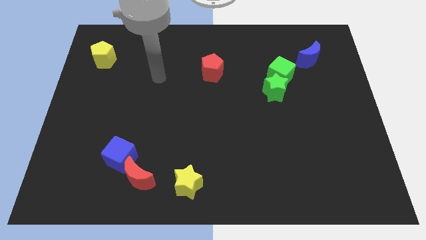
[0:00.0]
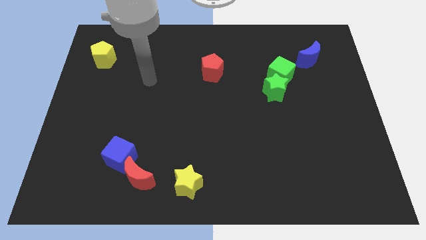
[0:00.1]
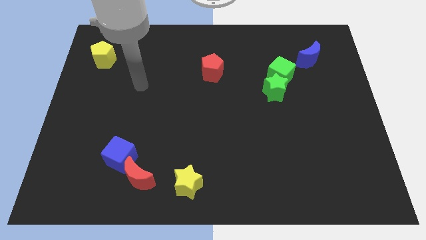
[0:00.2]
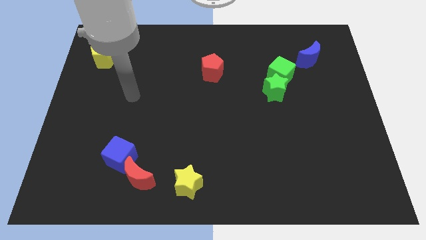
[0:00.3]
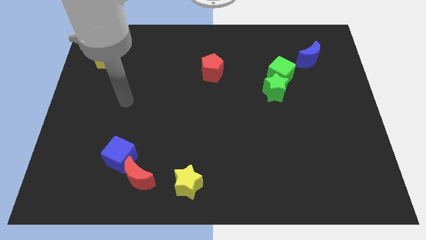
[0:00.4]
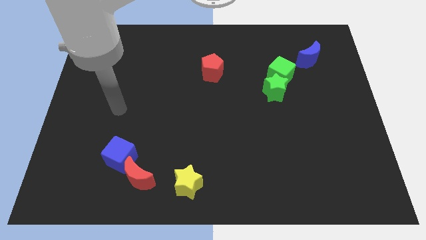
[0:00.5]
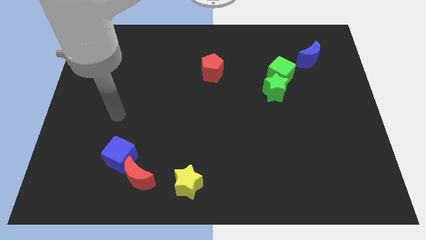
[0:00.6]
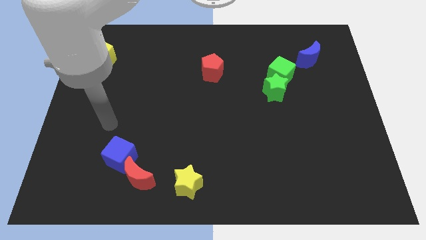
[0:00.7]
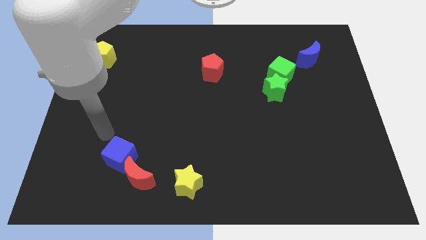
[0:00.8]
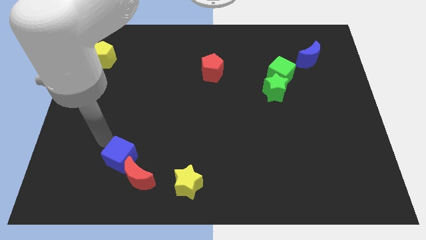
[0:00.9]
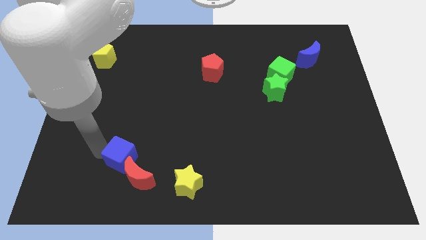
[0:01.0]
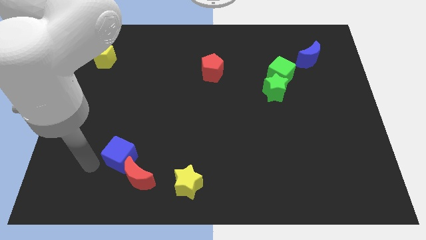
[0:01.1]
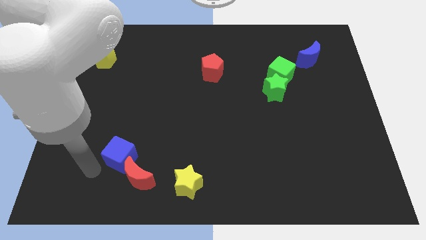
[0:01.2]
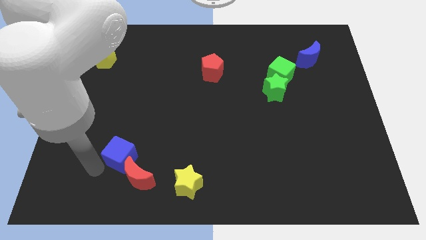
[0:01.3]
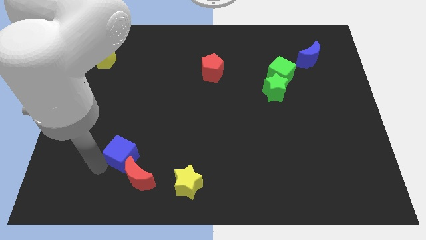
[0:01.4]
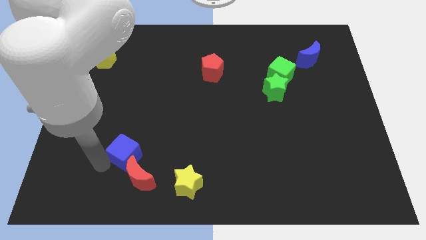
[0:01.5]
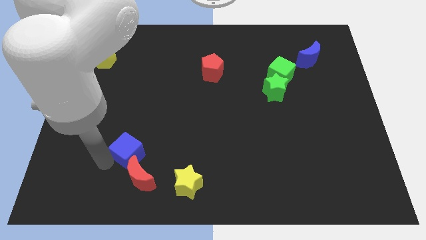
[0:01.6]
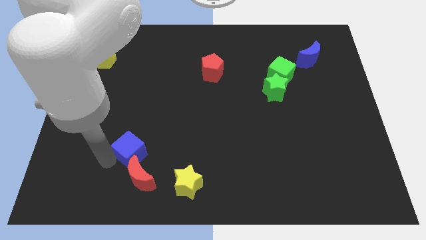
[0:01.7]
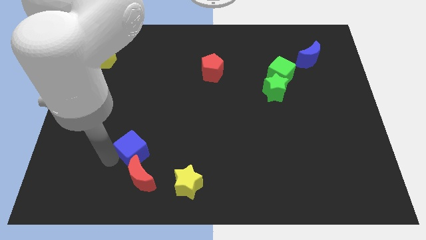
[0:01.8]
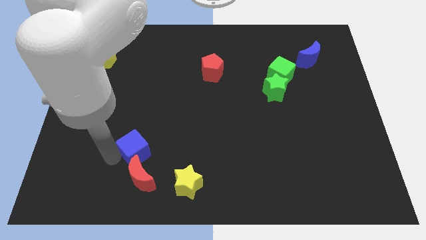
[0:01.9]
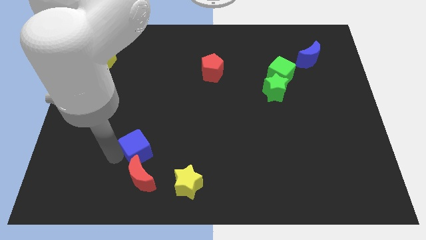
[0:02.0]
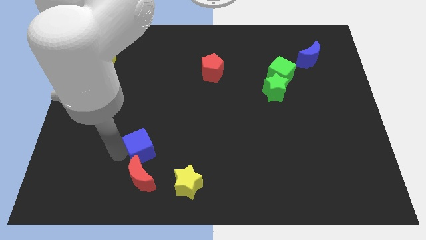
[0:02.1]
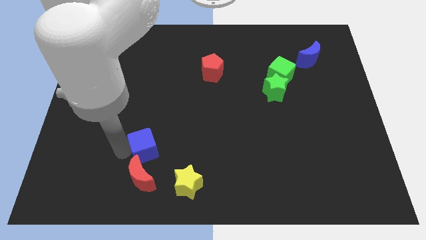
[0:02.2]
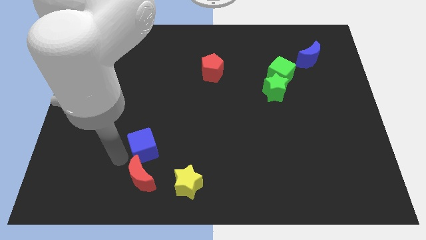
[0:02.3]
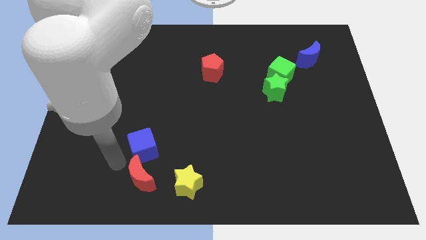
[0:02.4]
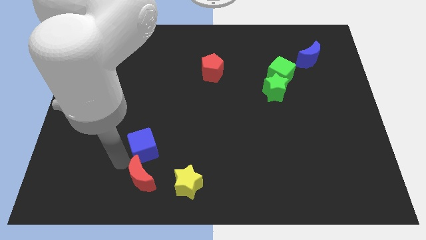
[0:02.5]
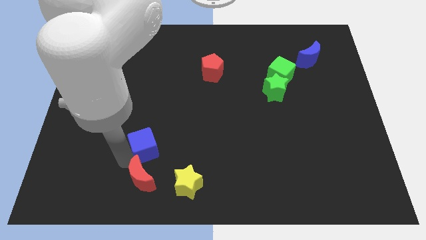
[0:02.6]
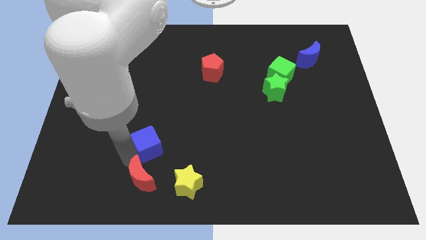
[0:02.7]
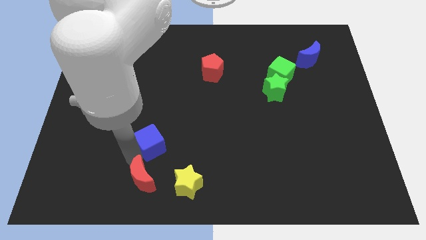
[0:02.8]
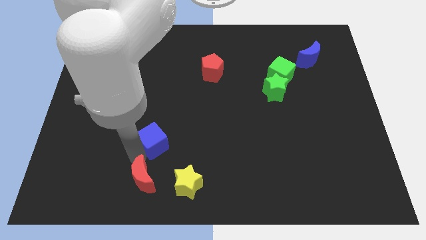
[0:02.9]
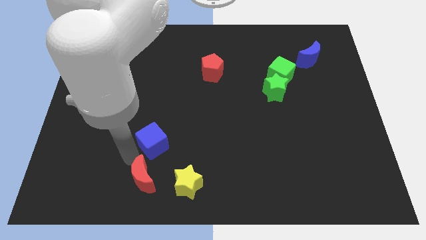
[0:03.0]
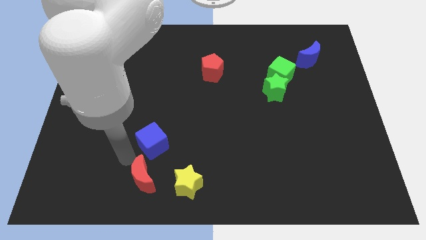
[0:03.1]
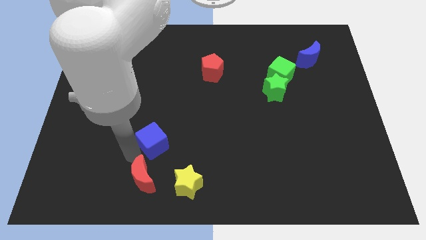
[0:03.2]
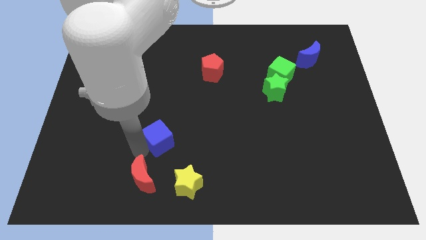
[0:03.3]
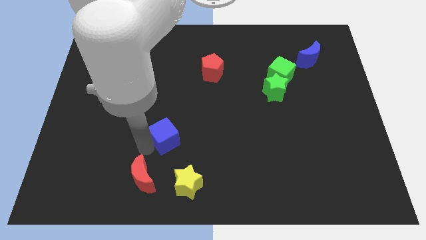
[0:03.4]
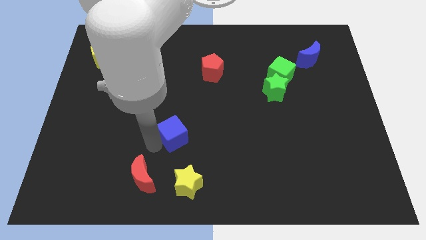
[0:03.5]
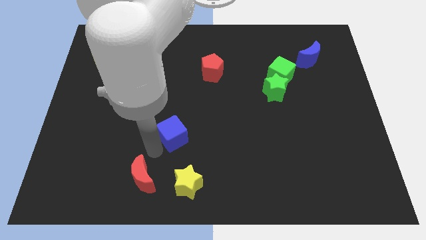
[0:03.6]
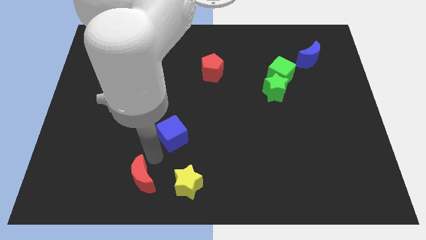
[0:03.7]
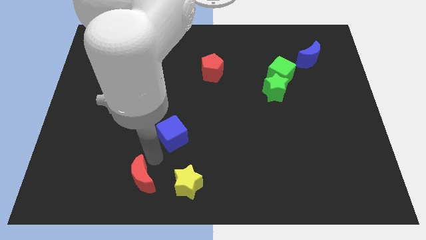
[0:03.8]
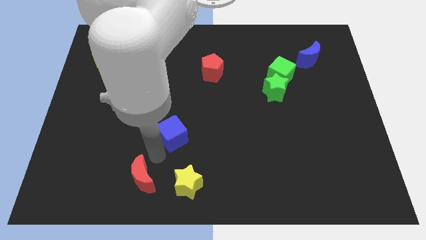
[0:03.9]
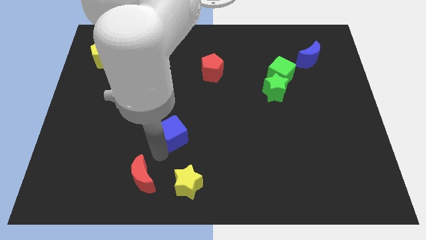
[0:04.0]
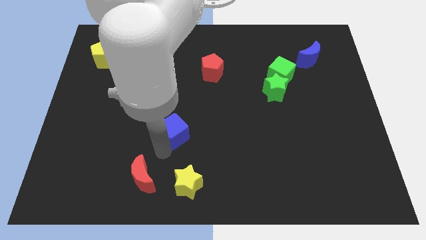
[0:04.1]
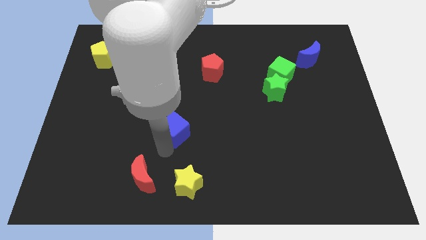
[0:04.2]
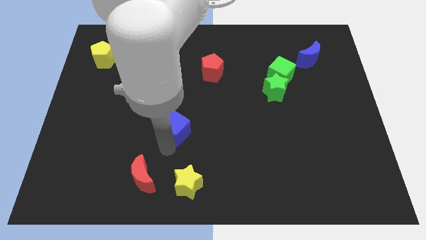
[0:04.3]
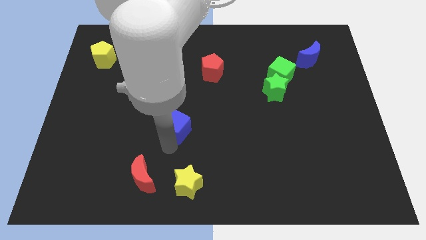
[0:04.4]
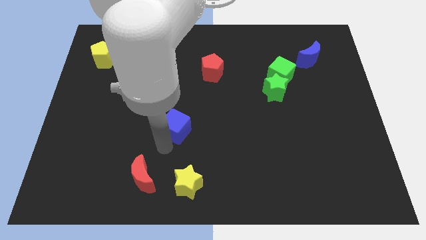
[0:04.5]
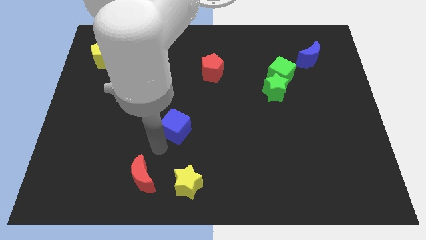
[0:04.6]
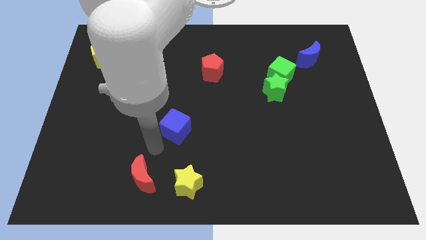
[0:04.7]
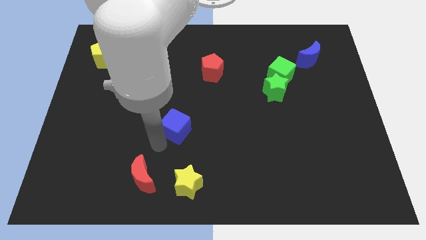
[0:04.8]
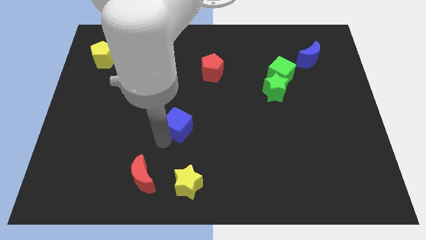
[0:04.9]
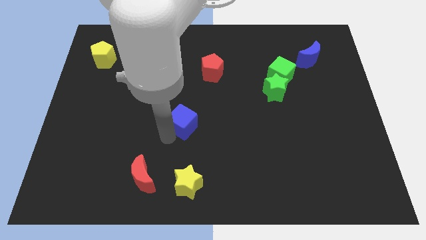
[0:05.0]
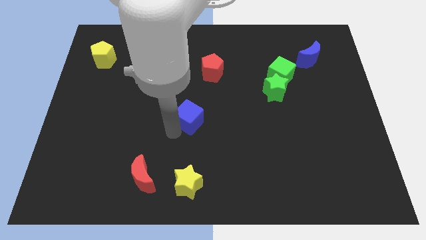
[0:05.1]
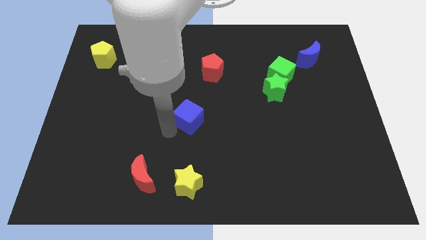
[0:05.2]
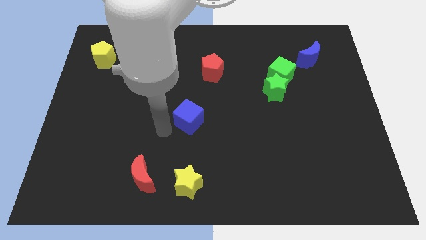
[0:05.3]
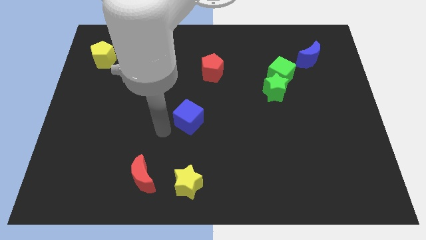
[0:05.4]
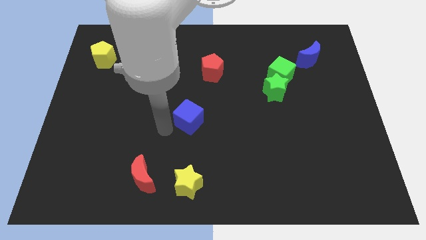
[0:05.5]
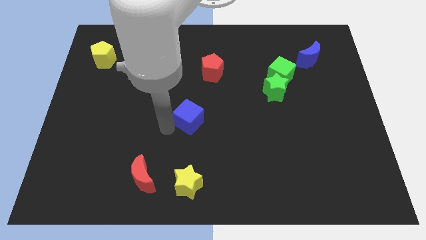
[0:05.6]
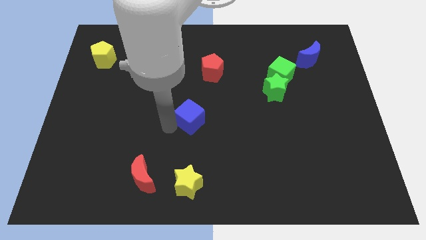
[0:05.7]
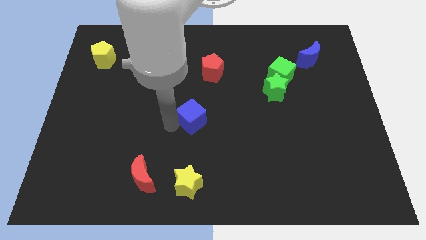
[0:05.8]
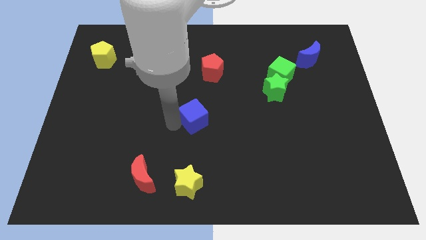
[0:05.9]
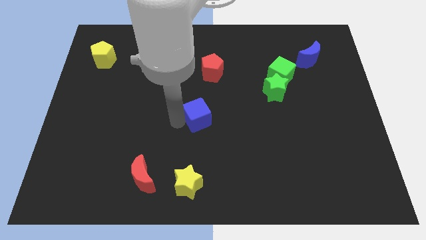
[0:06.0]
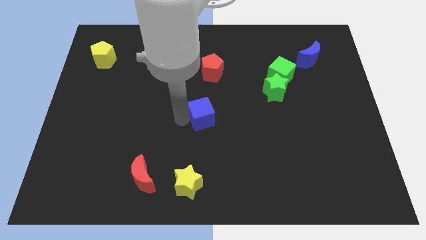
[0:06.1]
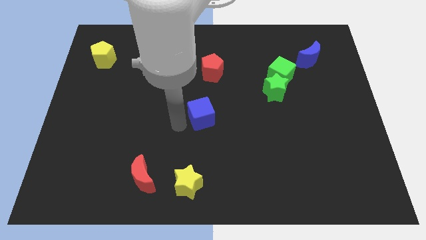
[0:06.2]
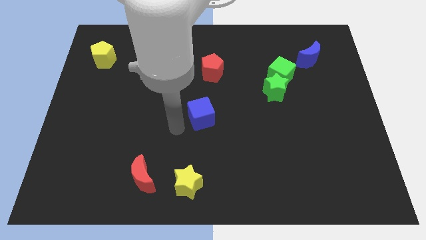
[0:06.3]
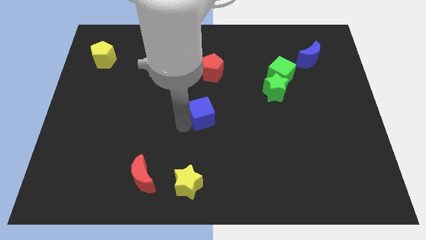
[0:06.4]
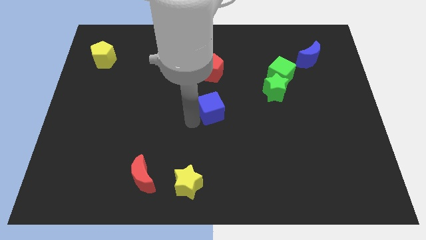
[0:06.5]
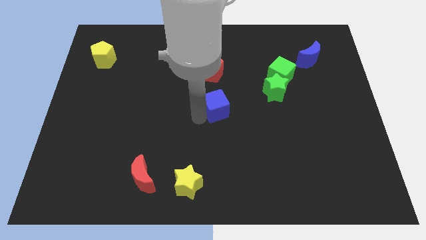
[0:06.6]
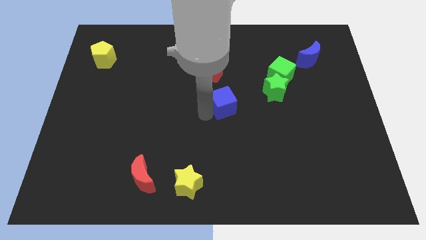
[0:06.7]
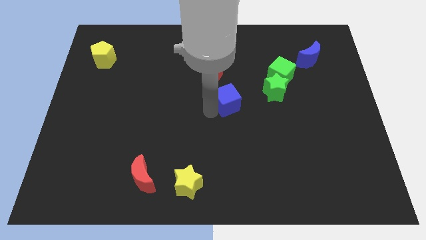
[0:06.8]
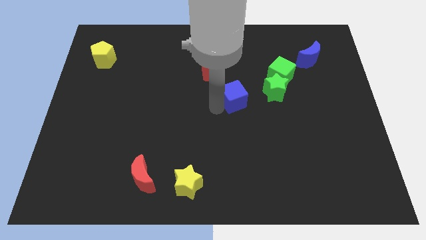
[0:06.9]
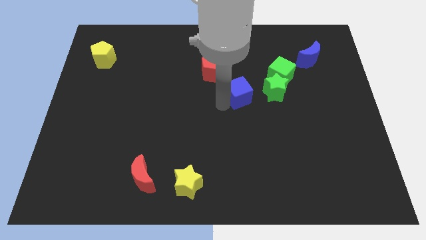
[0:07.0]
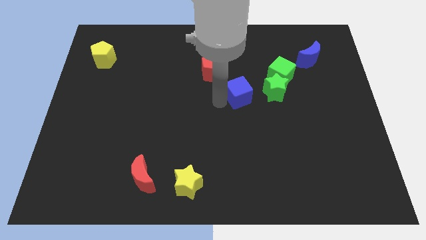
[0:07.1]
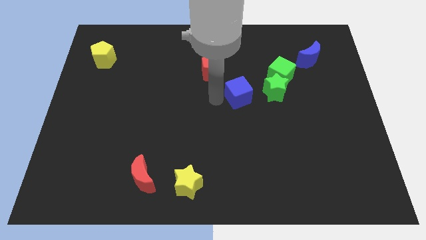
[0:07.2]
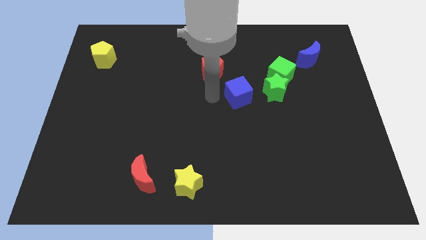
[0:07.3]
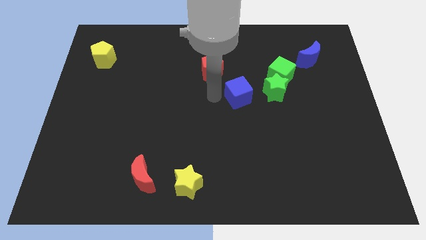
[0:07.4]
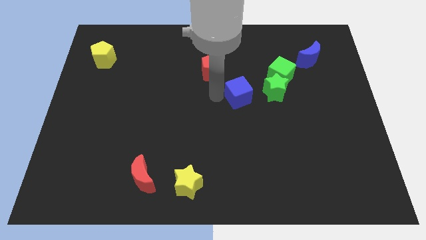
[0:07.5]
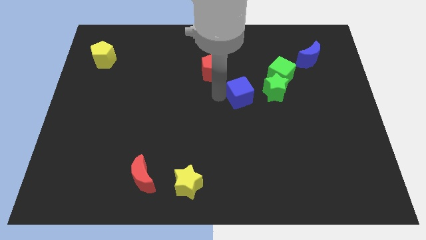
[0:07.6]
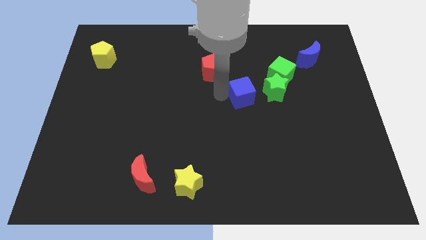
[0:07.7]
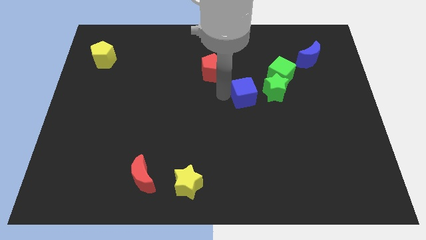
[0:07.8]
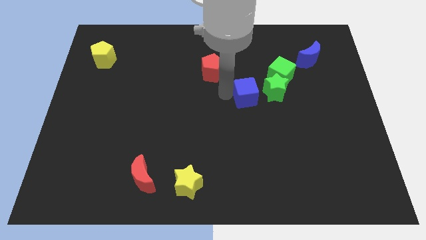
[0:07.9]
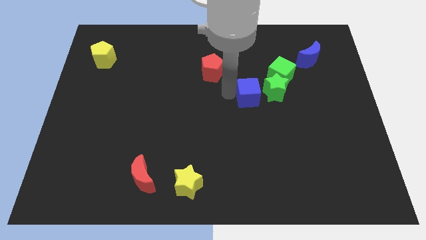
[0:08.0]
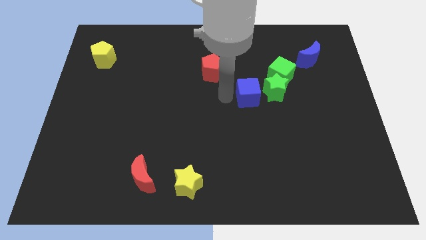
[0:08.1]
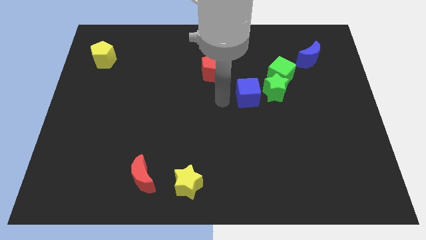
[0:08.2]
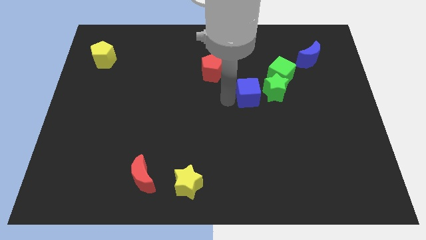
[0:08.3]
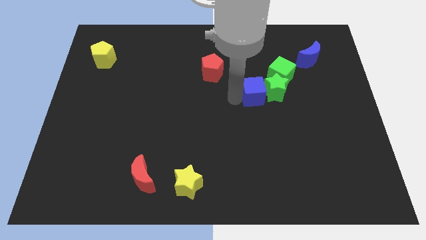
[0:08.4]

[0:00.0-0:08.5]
put the blue cube next to the green star
